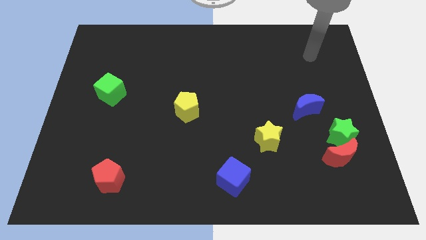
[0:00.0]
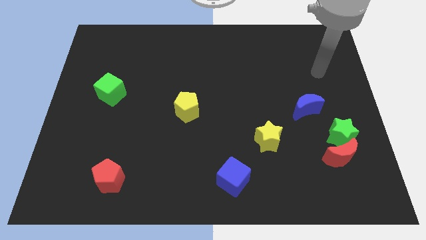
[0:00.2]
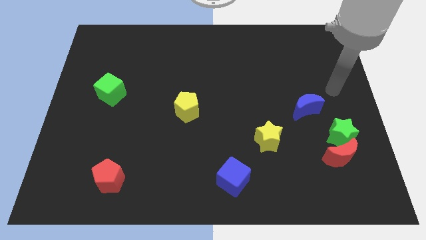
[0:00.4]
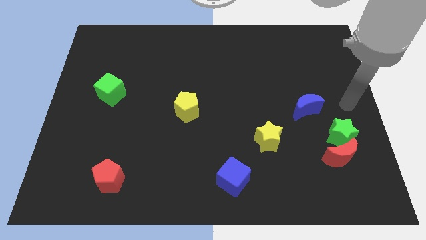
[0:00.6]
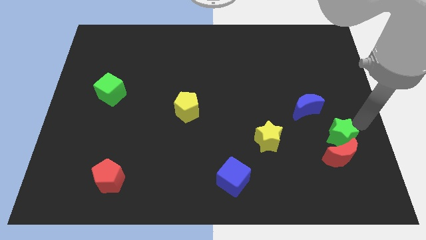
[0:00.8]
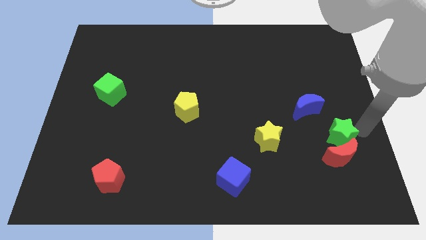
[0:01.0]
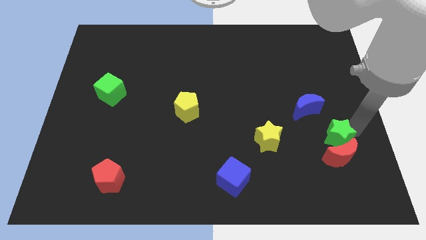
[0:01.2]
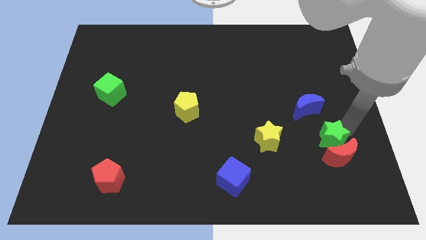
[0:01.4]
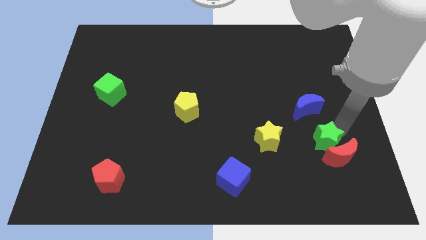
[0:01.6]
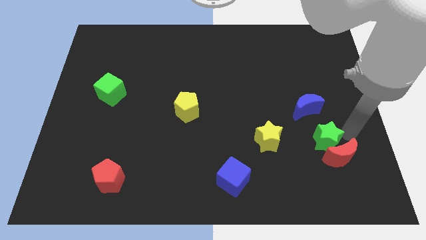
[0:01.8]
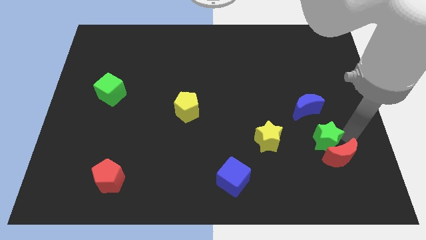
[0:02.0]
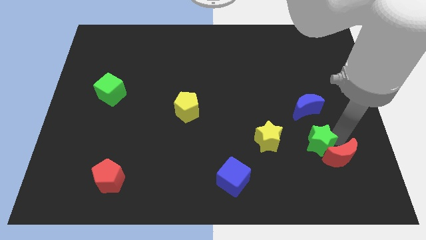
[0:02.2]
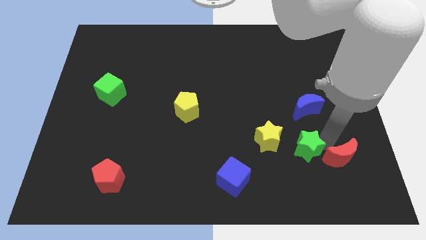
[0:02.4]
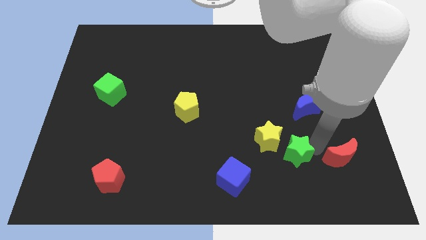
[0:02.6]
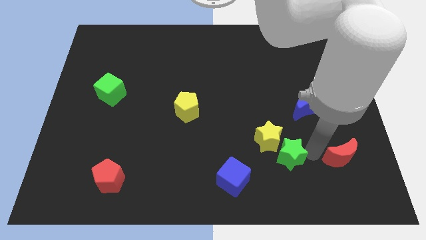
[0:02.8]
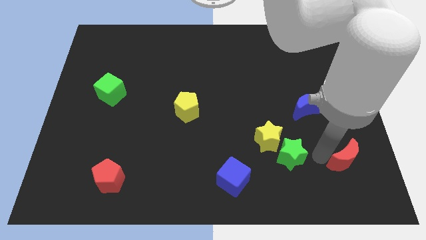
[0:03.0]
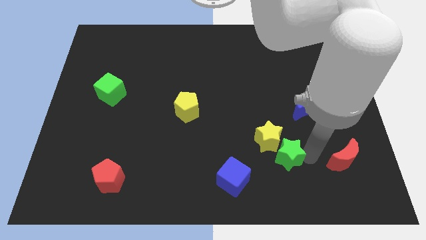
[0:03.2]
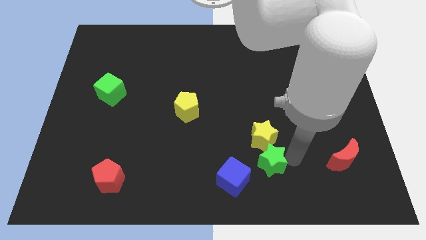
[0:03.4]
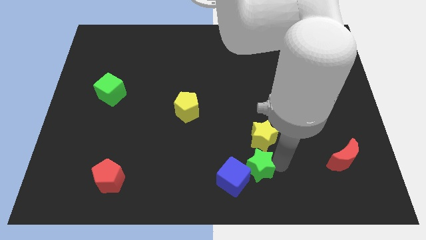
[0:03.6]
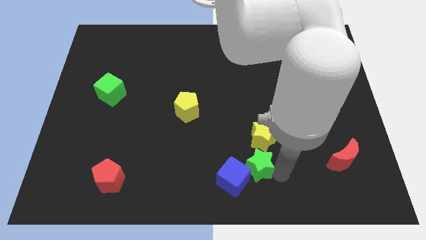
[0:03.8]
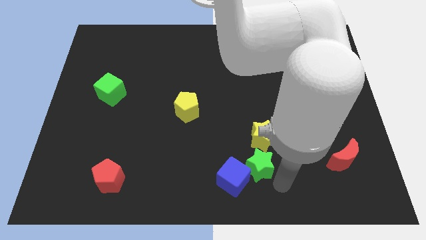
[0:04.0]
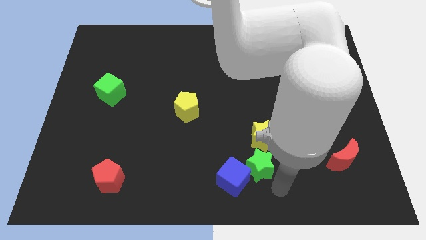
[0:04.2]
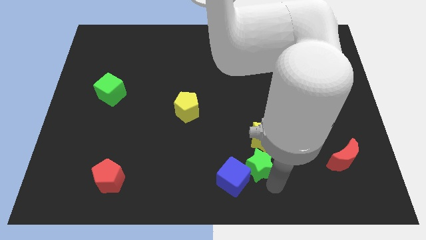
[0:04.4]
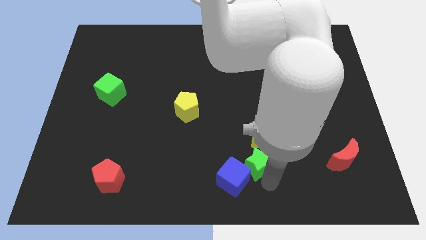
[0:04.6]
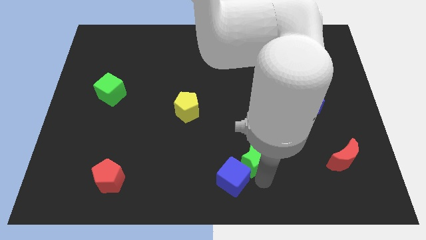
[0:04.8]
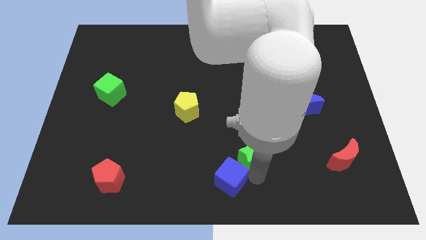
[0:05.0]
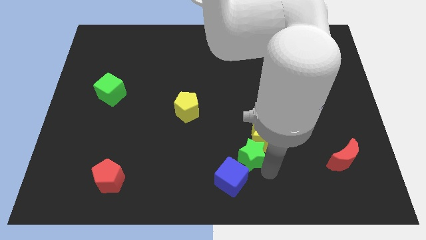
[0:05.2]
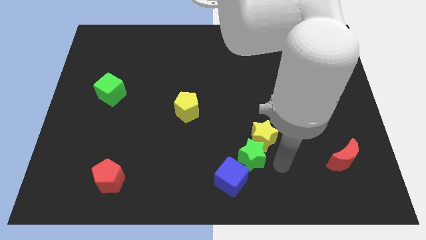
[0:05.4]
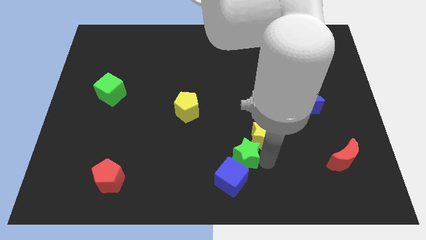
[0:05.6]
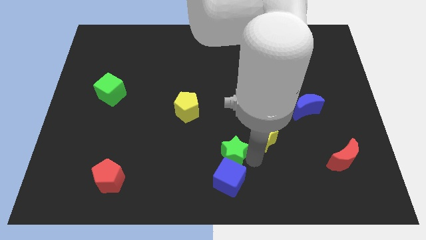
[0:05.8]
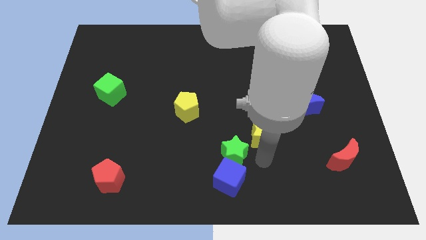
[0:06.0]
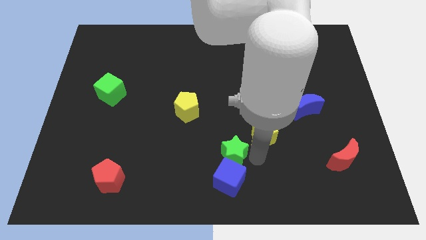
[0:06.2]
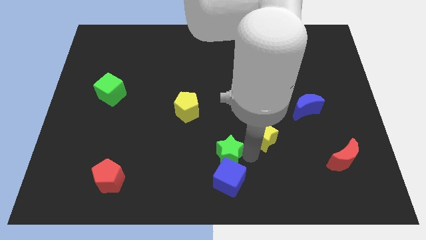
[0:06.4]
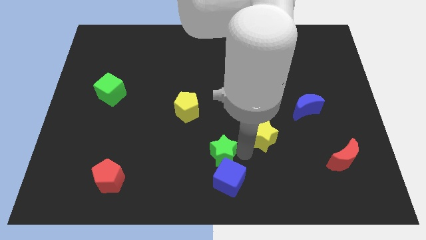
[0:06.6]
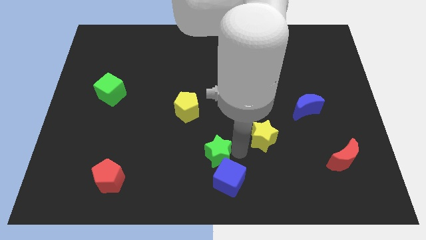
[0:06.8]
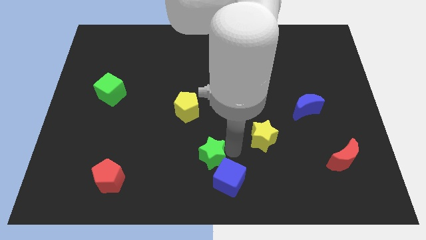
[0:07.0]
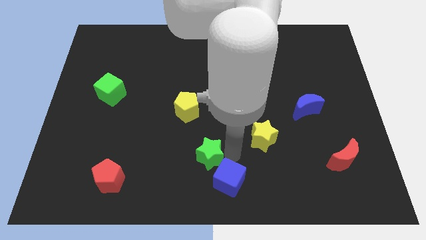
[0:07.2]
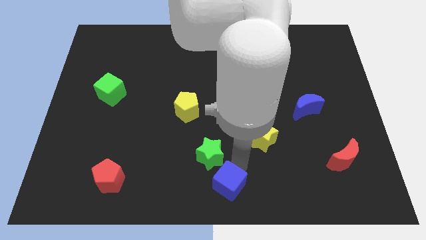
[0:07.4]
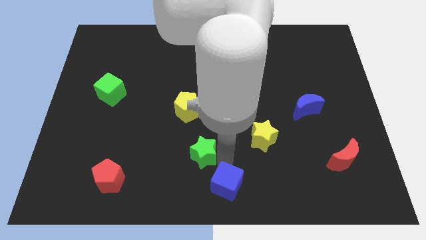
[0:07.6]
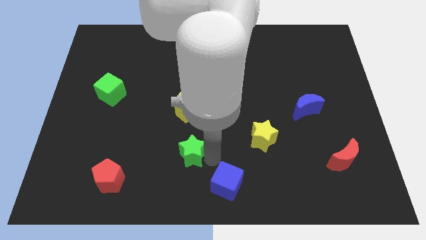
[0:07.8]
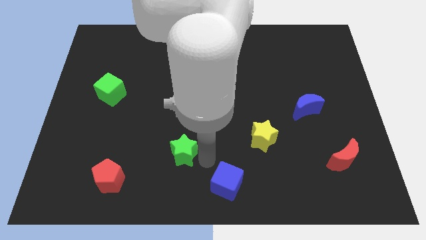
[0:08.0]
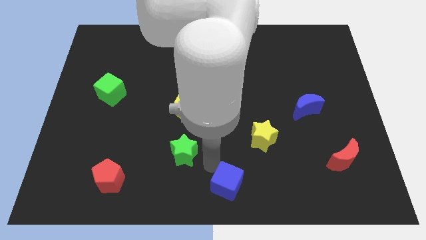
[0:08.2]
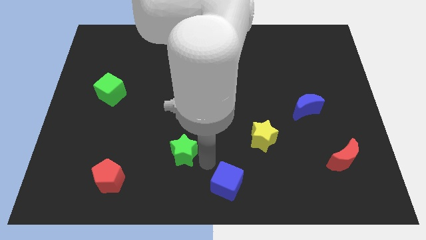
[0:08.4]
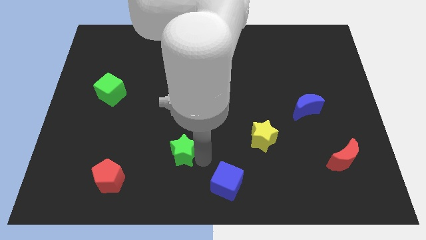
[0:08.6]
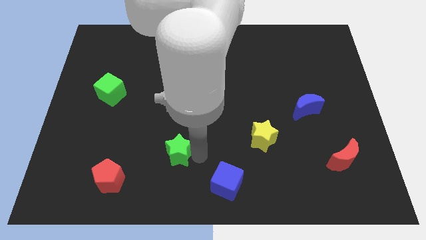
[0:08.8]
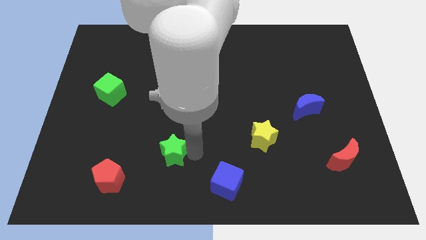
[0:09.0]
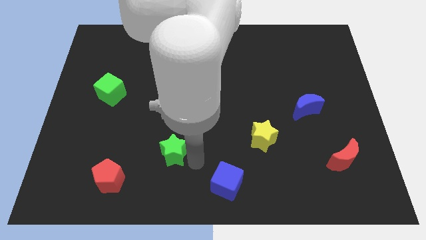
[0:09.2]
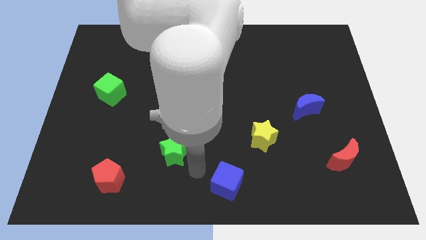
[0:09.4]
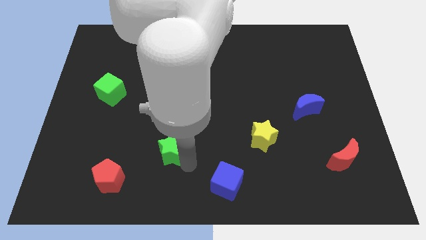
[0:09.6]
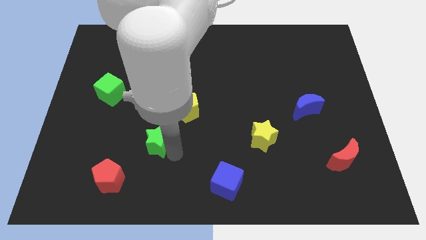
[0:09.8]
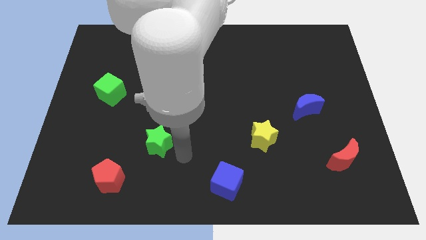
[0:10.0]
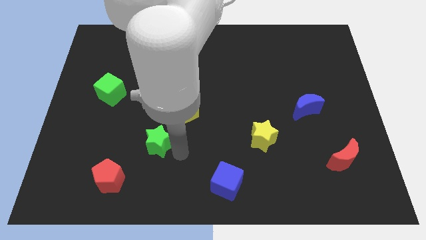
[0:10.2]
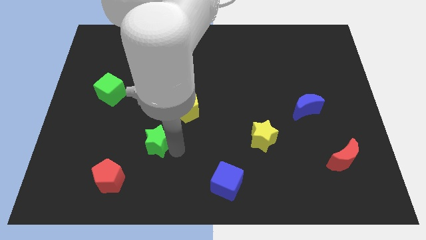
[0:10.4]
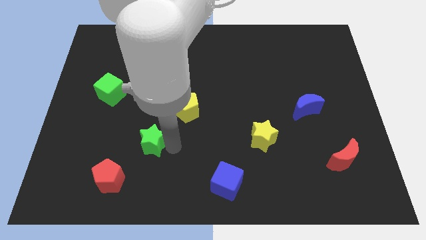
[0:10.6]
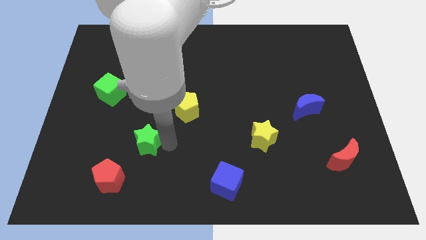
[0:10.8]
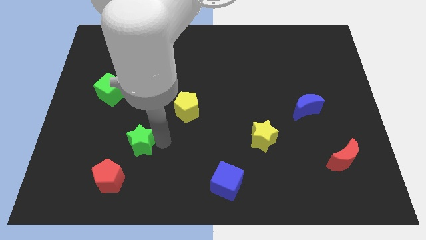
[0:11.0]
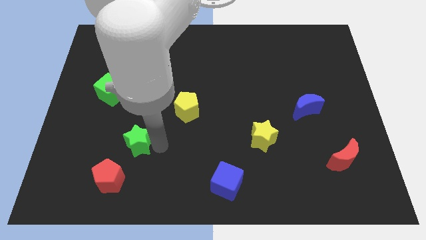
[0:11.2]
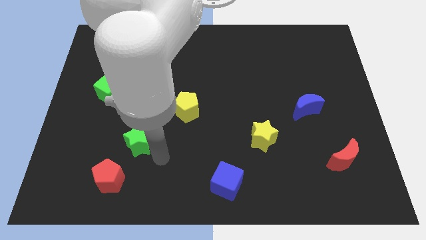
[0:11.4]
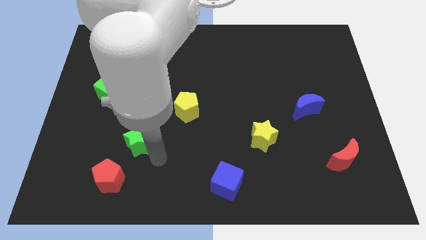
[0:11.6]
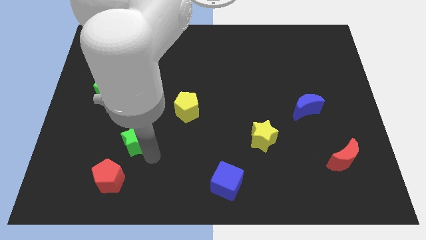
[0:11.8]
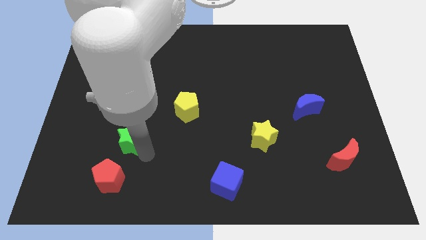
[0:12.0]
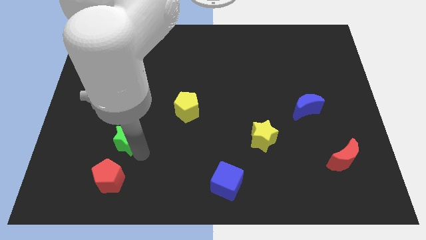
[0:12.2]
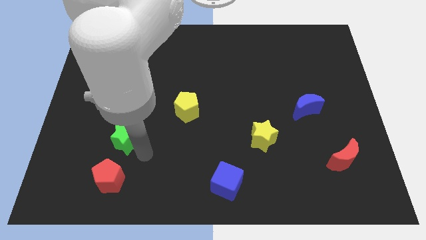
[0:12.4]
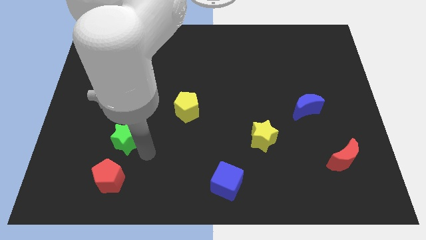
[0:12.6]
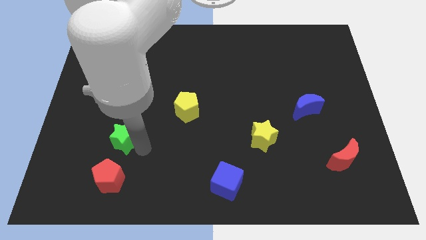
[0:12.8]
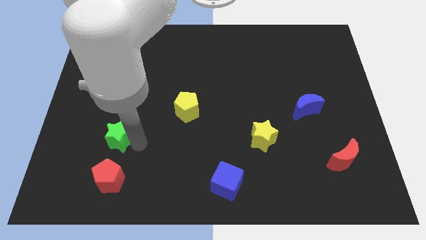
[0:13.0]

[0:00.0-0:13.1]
slide the green star to the bottom of the green cube
